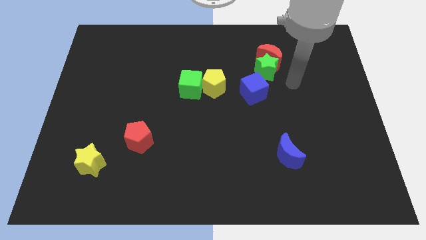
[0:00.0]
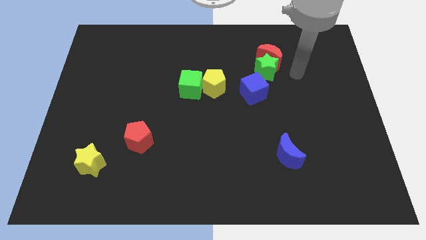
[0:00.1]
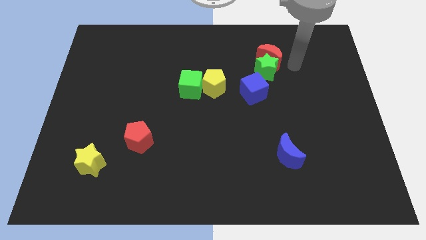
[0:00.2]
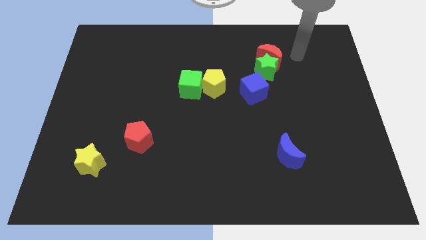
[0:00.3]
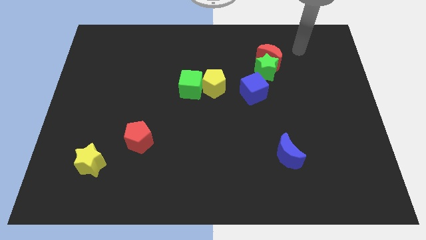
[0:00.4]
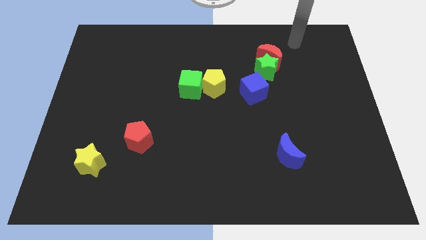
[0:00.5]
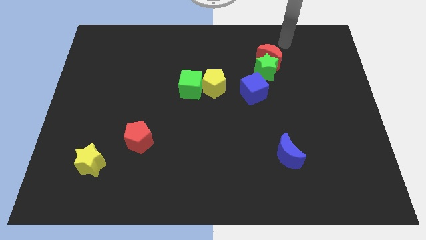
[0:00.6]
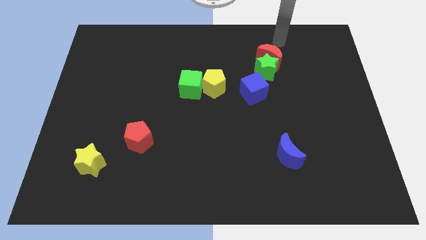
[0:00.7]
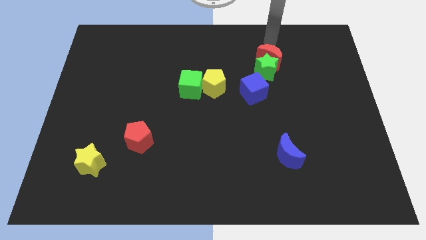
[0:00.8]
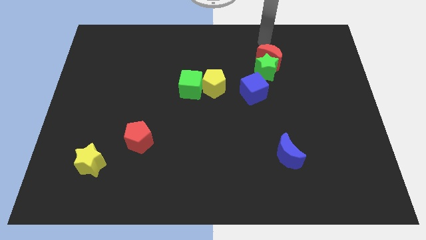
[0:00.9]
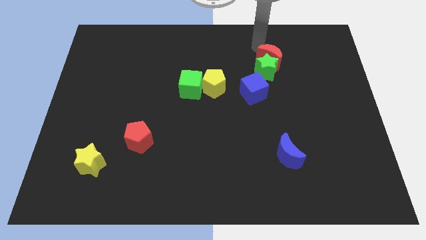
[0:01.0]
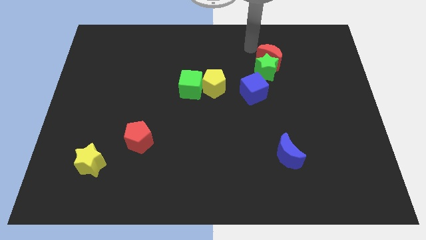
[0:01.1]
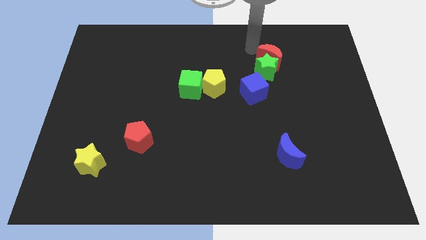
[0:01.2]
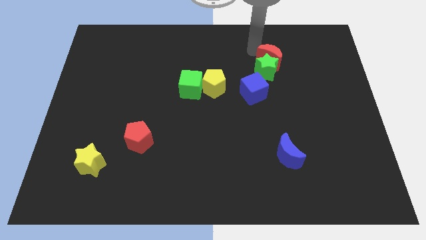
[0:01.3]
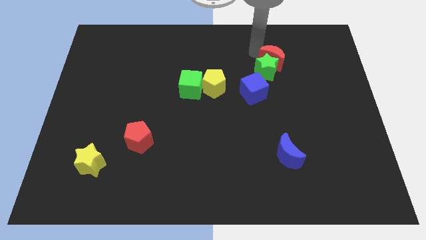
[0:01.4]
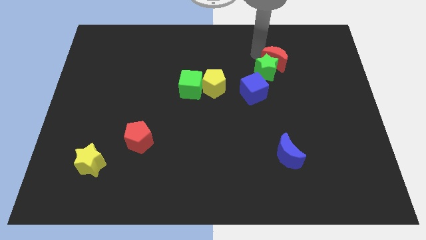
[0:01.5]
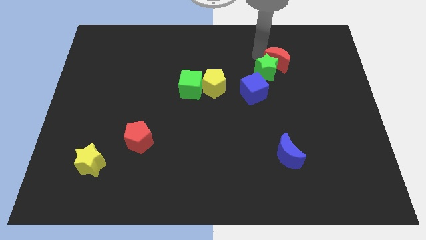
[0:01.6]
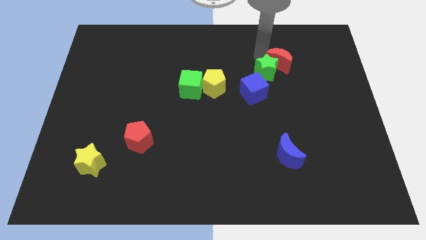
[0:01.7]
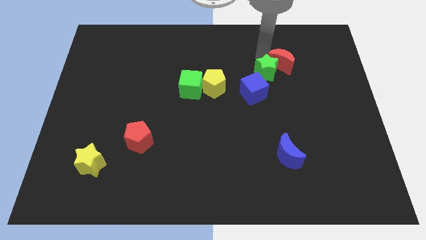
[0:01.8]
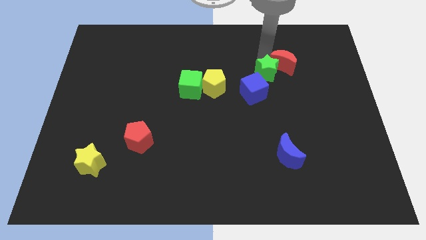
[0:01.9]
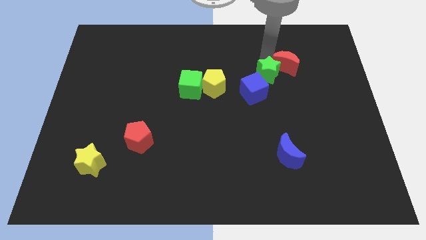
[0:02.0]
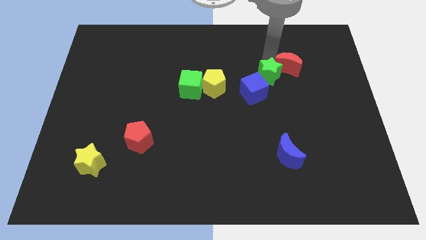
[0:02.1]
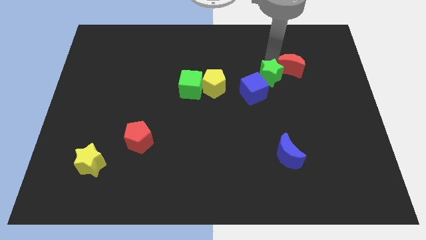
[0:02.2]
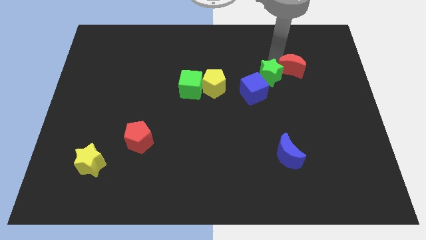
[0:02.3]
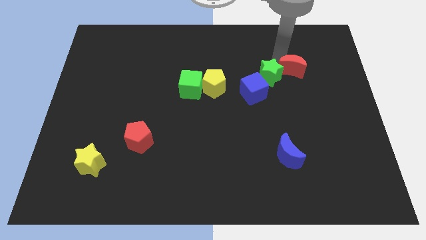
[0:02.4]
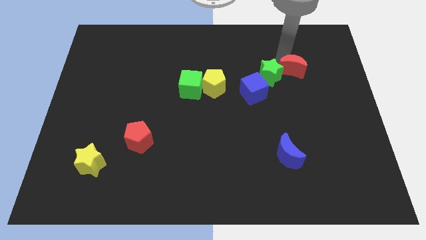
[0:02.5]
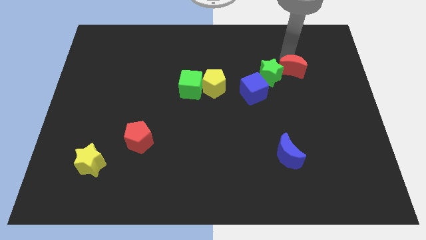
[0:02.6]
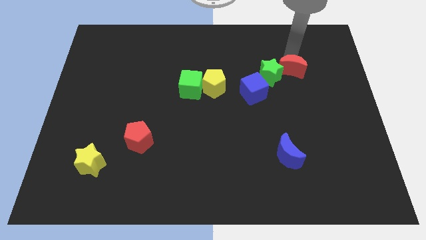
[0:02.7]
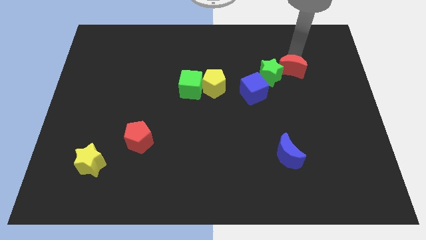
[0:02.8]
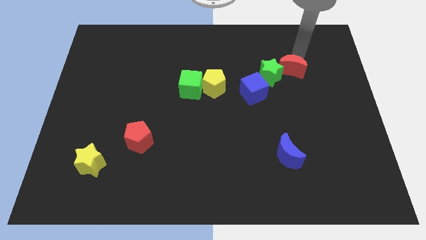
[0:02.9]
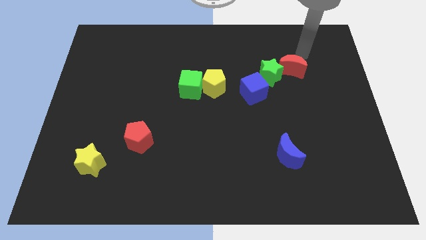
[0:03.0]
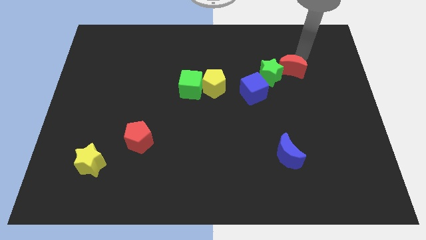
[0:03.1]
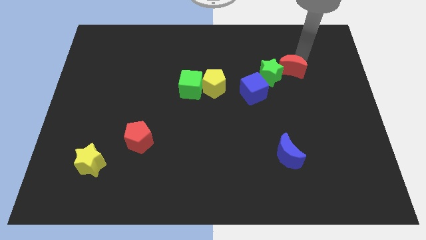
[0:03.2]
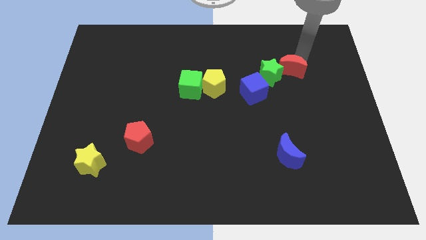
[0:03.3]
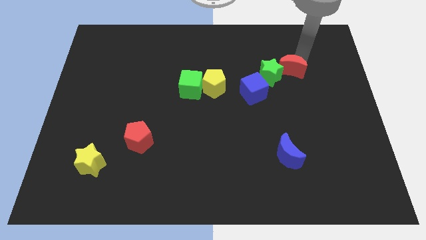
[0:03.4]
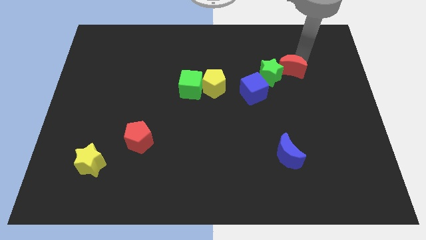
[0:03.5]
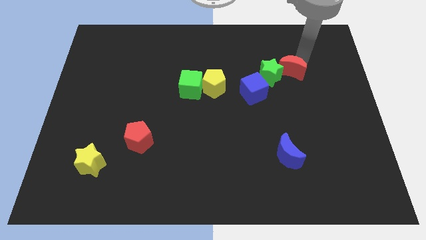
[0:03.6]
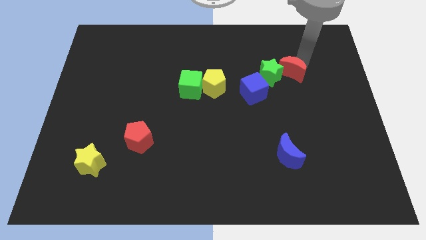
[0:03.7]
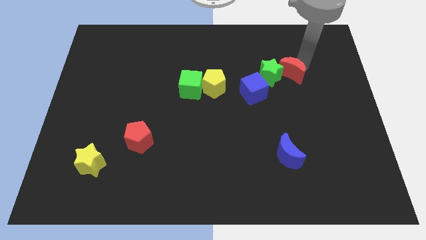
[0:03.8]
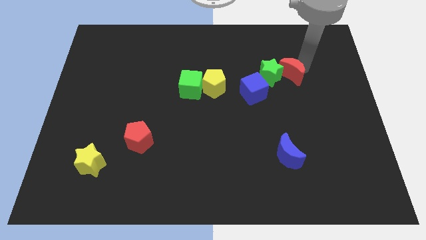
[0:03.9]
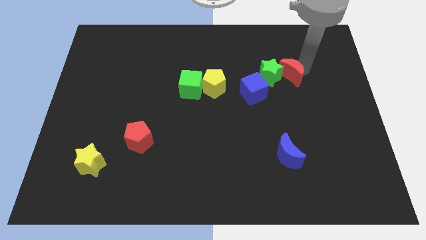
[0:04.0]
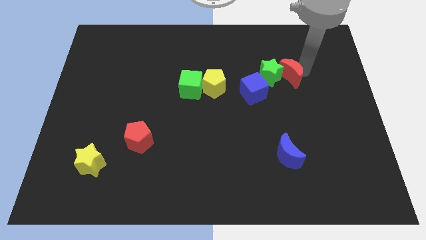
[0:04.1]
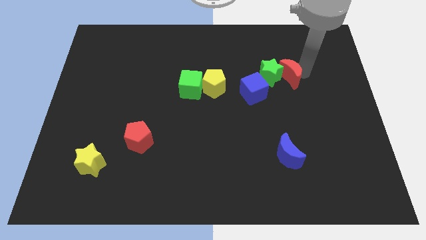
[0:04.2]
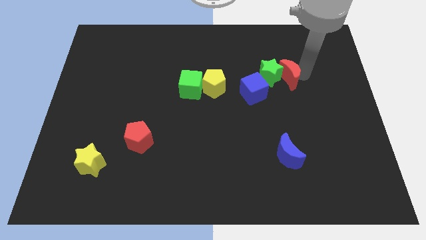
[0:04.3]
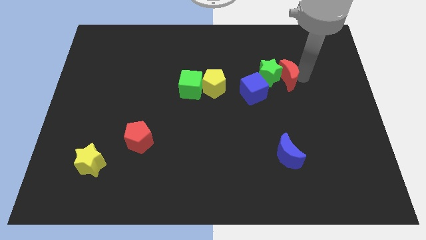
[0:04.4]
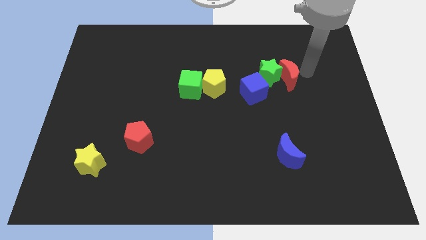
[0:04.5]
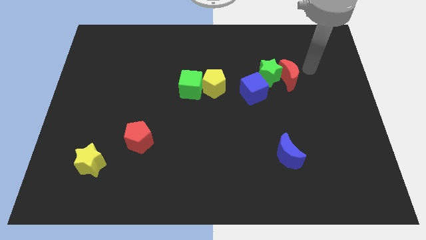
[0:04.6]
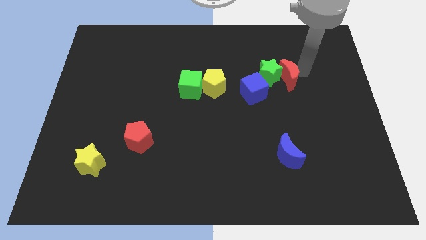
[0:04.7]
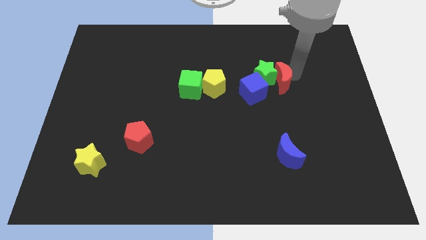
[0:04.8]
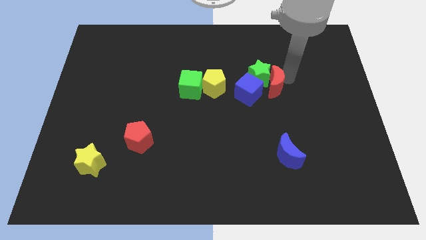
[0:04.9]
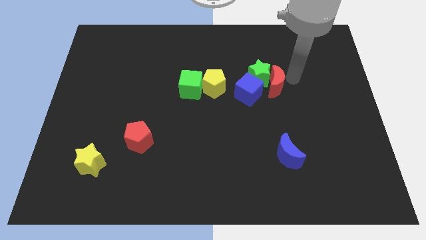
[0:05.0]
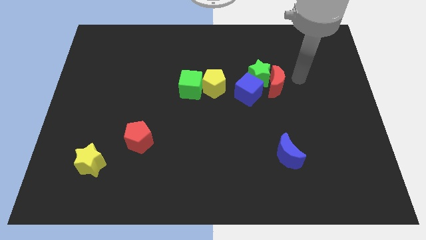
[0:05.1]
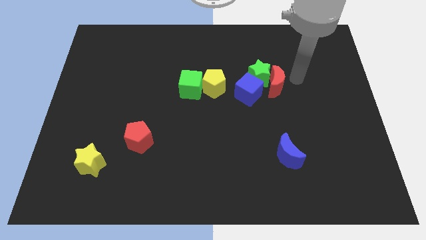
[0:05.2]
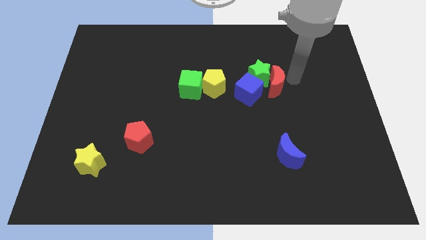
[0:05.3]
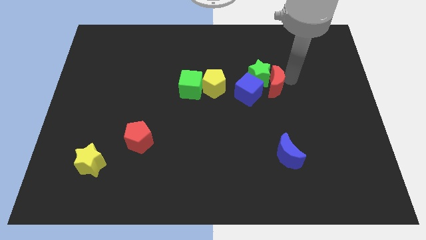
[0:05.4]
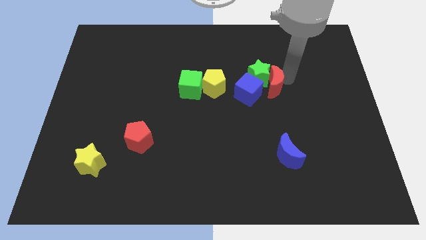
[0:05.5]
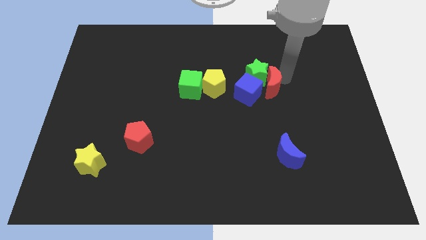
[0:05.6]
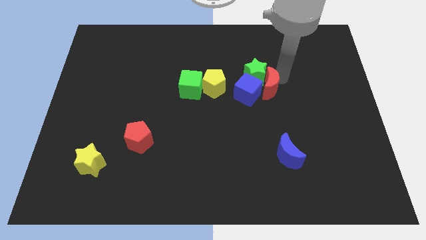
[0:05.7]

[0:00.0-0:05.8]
put the red moon to the blue cube

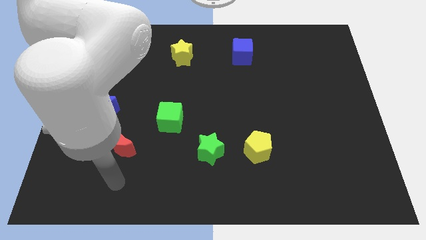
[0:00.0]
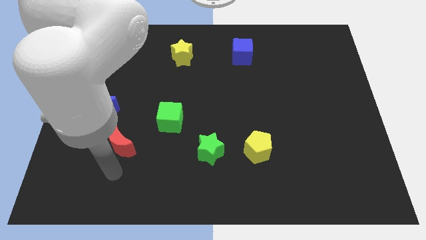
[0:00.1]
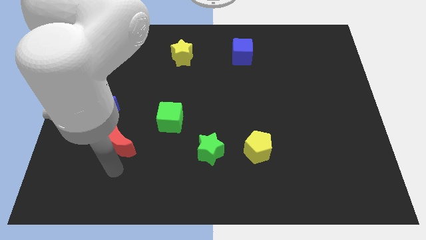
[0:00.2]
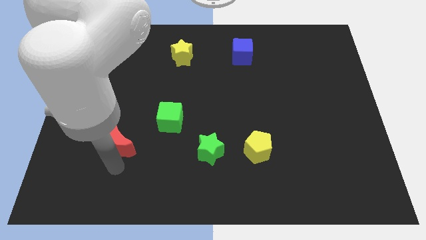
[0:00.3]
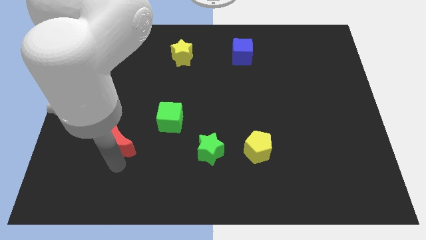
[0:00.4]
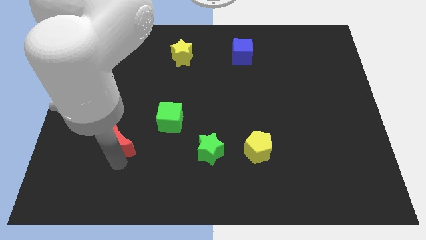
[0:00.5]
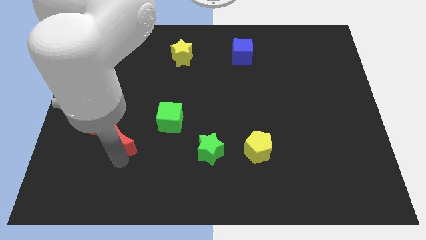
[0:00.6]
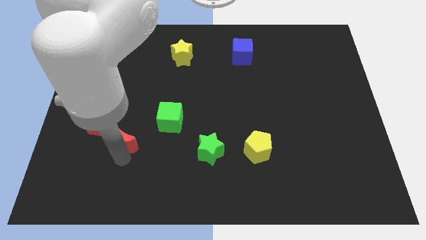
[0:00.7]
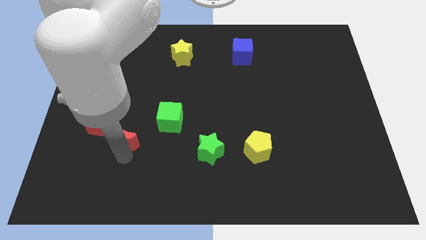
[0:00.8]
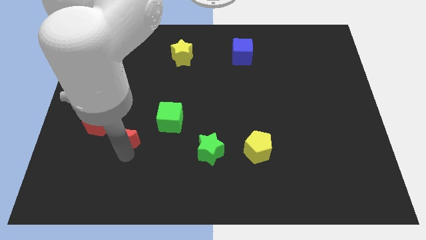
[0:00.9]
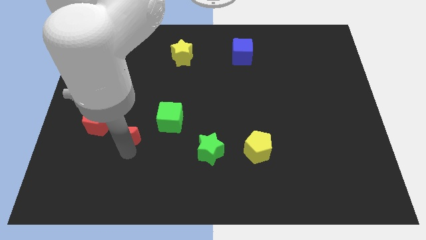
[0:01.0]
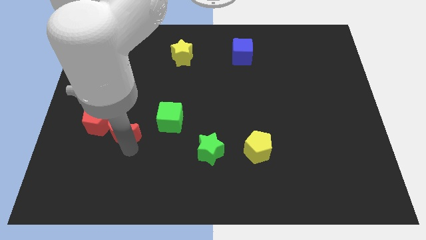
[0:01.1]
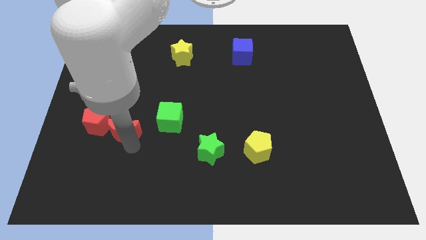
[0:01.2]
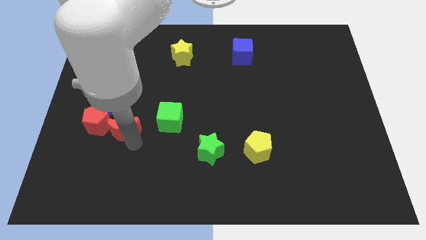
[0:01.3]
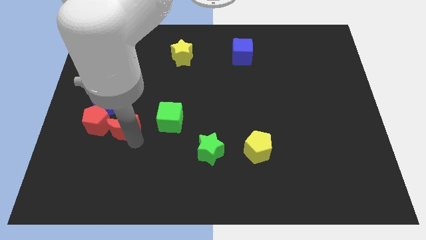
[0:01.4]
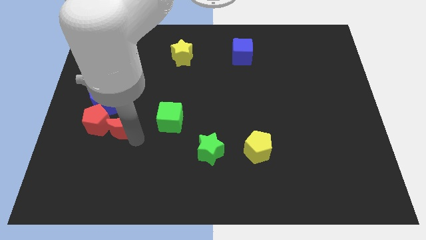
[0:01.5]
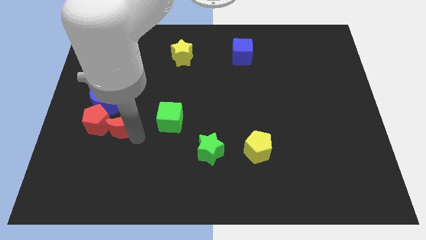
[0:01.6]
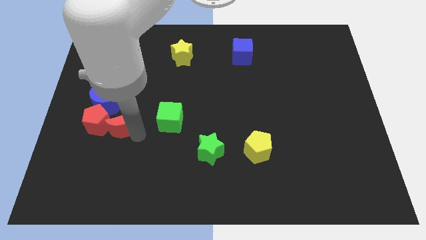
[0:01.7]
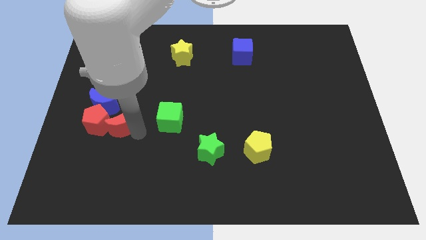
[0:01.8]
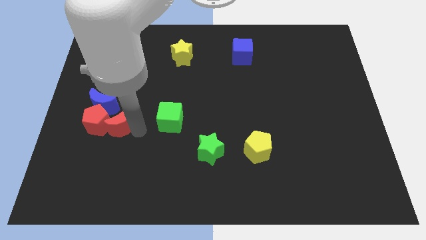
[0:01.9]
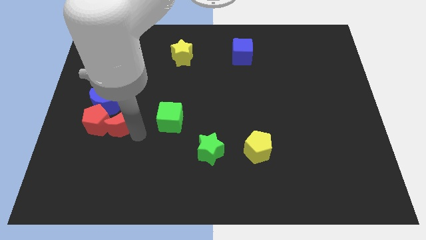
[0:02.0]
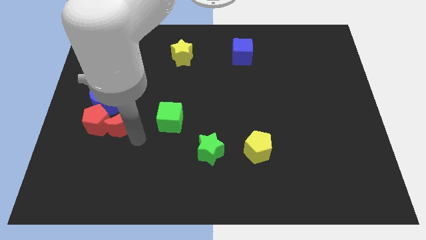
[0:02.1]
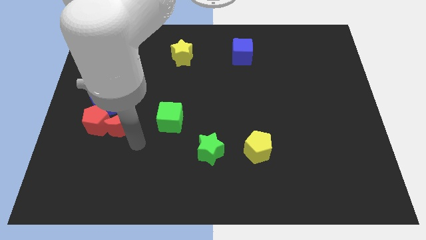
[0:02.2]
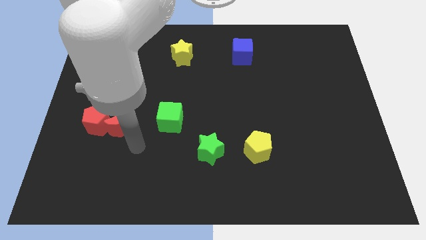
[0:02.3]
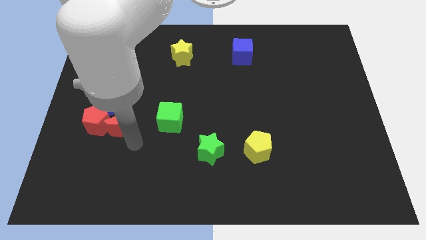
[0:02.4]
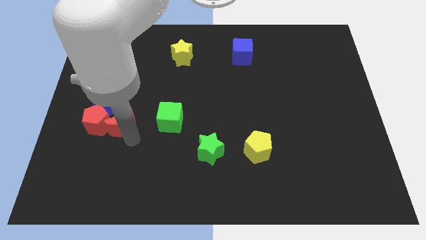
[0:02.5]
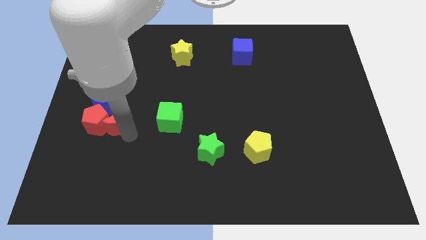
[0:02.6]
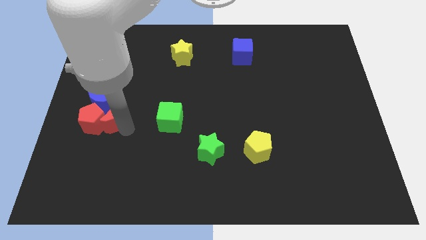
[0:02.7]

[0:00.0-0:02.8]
slide the red moon to the blue moon
